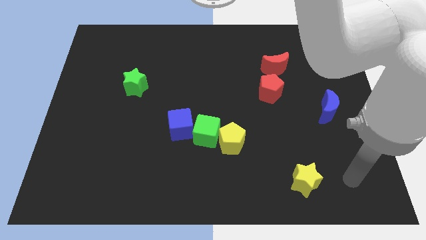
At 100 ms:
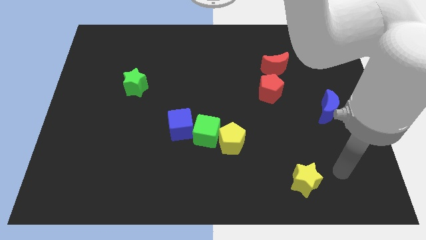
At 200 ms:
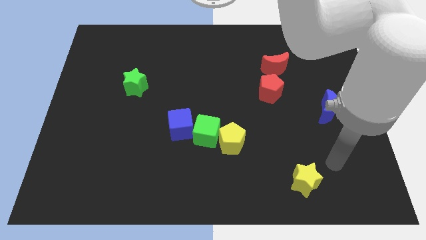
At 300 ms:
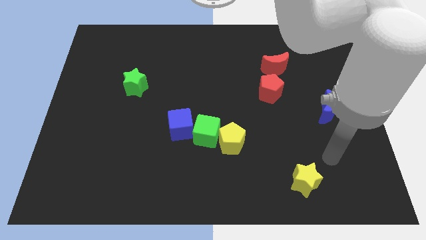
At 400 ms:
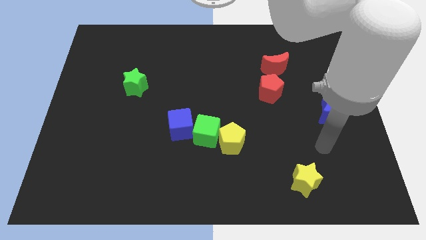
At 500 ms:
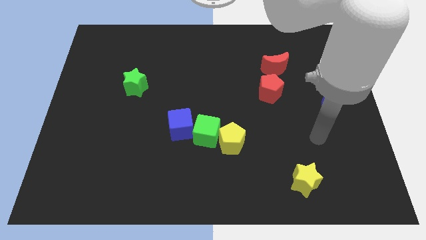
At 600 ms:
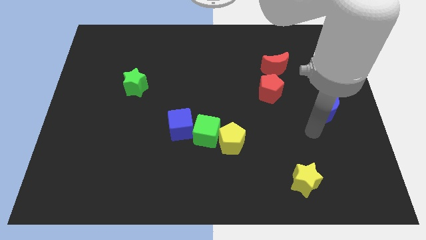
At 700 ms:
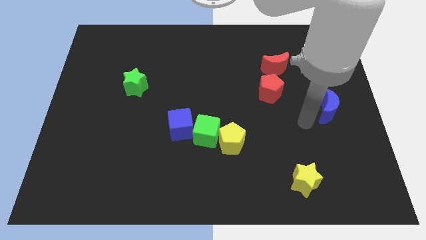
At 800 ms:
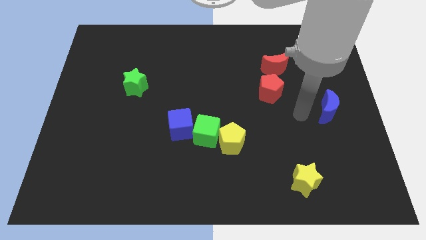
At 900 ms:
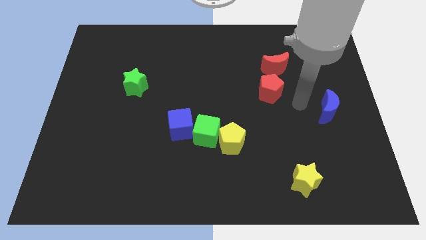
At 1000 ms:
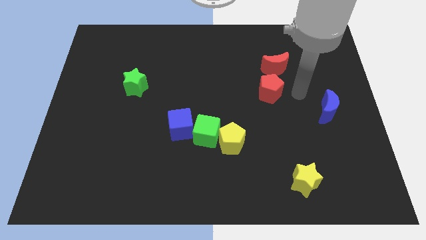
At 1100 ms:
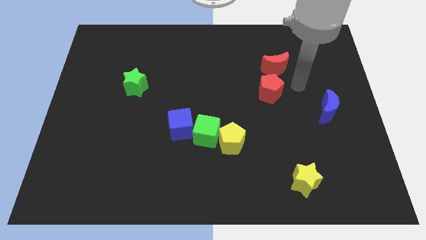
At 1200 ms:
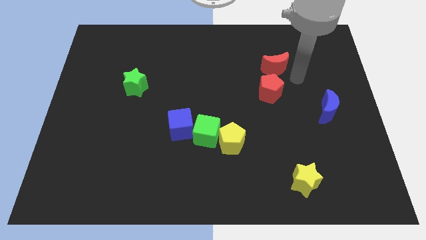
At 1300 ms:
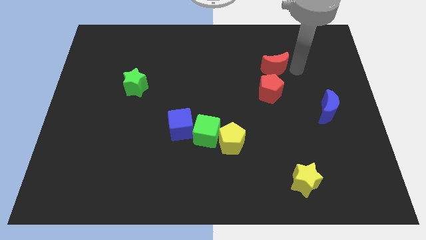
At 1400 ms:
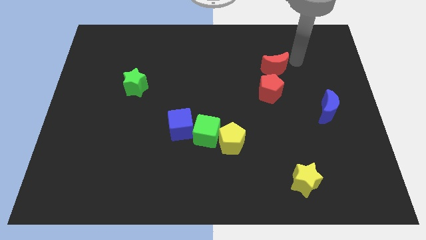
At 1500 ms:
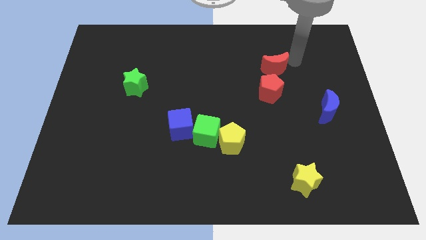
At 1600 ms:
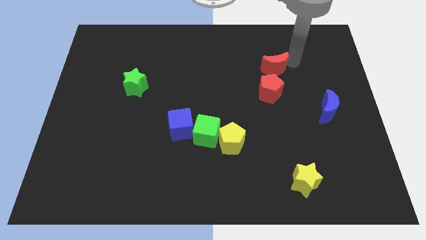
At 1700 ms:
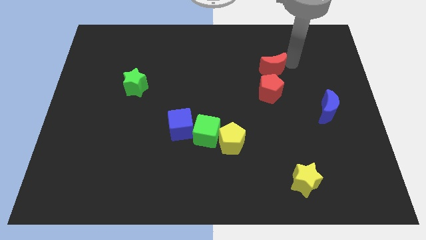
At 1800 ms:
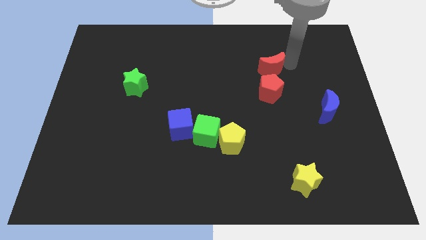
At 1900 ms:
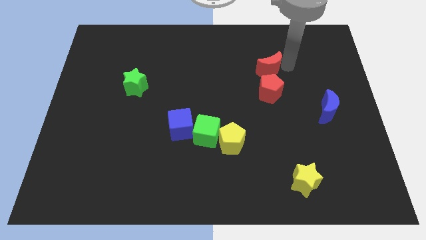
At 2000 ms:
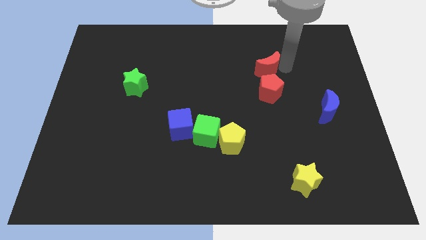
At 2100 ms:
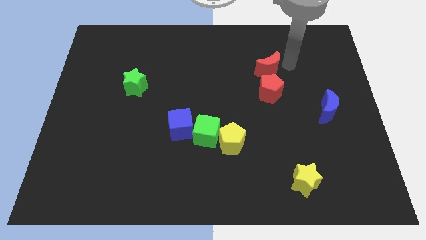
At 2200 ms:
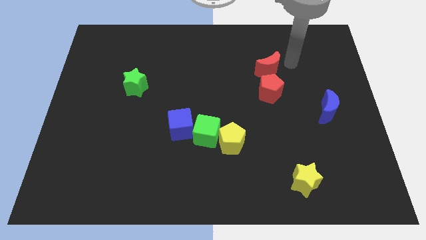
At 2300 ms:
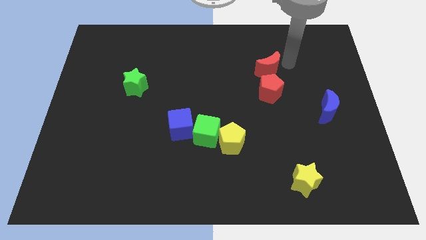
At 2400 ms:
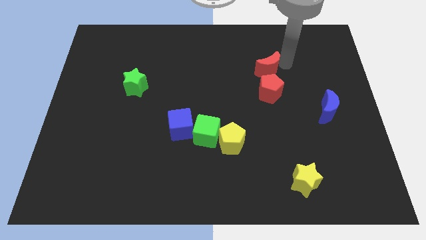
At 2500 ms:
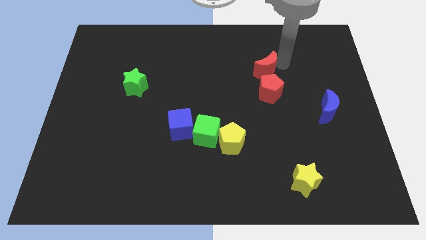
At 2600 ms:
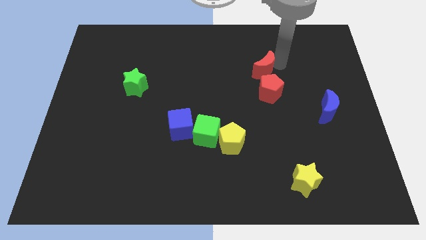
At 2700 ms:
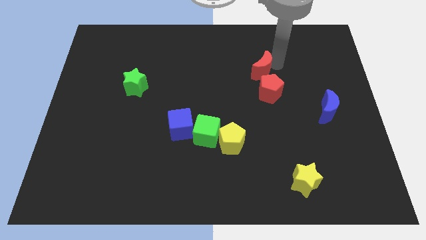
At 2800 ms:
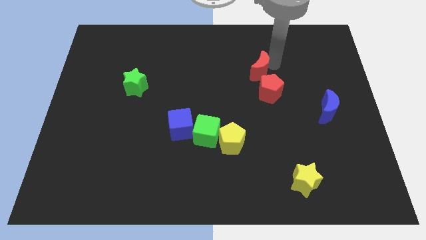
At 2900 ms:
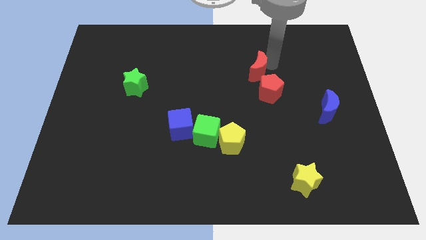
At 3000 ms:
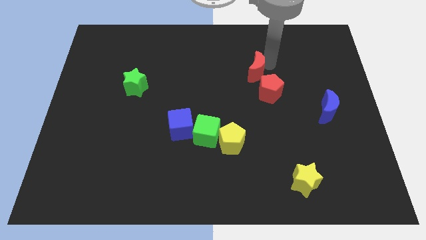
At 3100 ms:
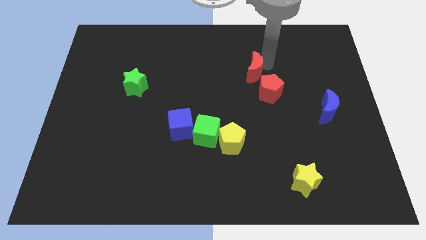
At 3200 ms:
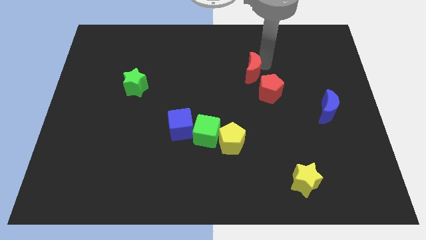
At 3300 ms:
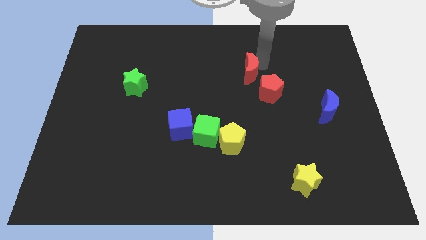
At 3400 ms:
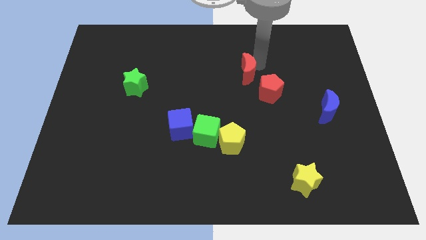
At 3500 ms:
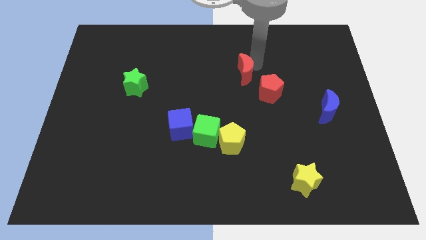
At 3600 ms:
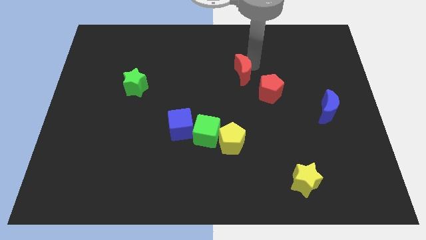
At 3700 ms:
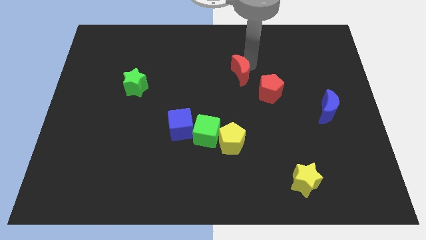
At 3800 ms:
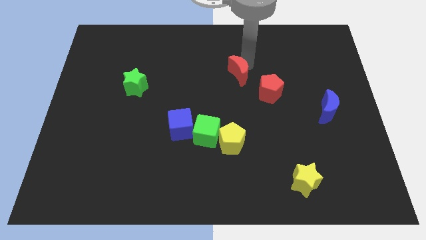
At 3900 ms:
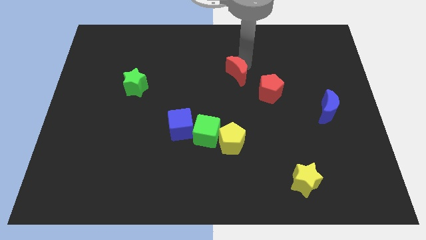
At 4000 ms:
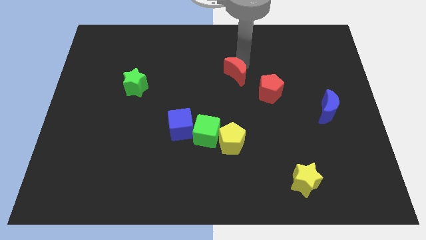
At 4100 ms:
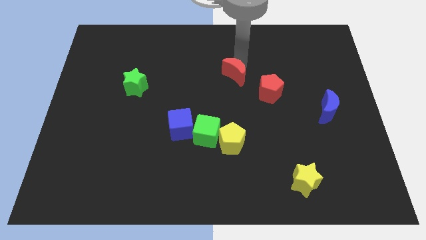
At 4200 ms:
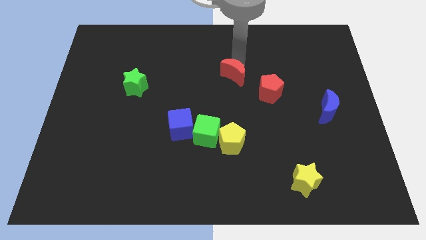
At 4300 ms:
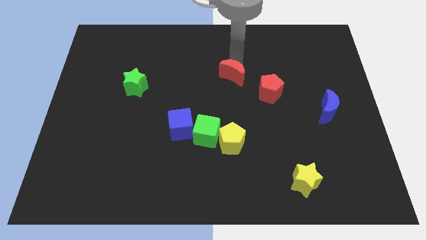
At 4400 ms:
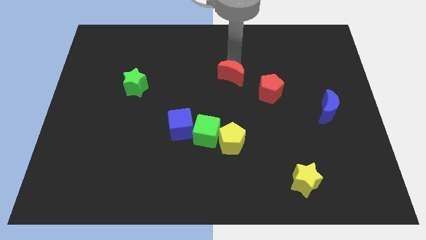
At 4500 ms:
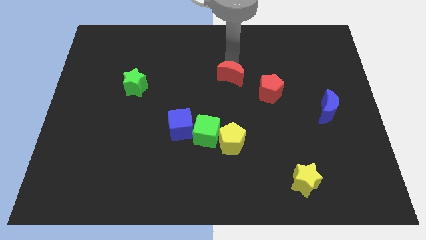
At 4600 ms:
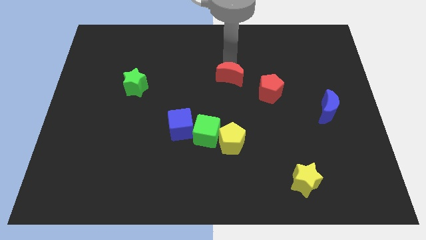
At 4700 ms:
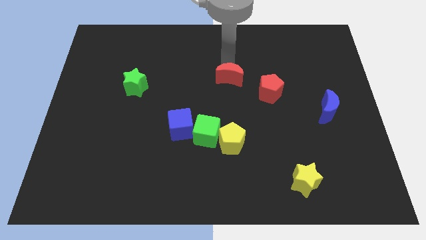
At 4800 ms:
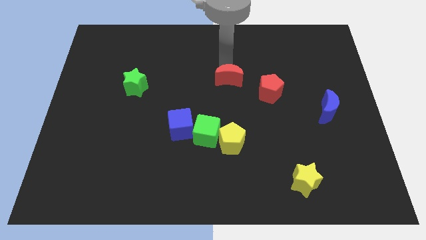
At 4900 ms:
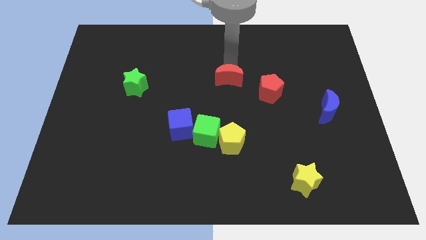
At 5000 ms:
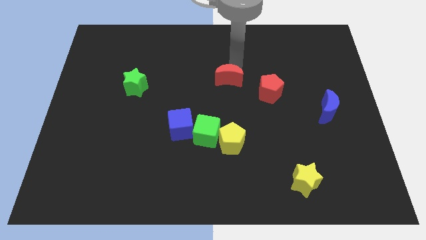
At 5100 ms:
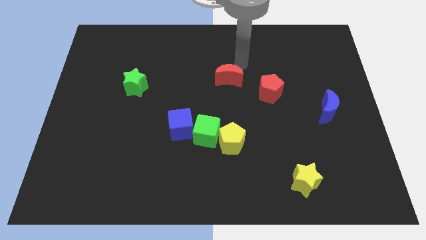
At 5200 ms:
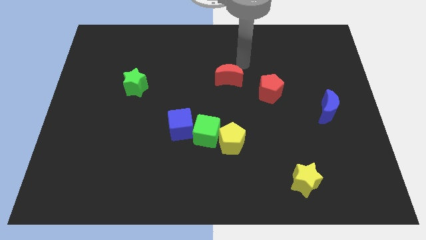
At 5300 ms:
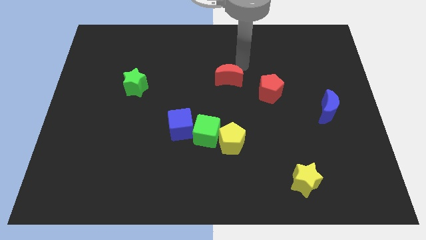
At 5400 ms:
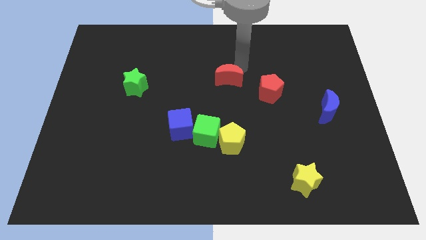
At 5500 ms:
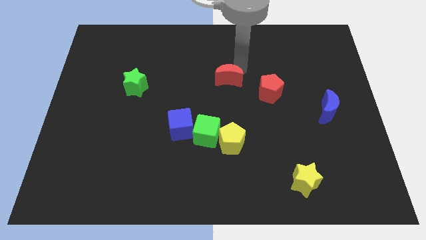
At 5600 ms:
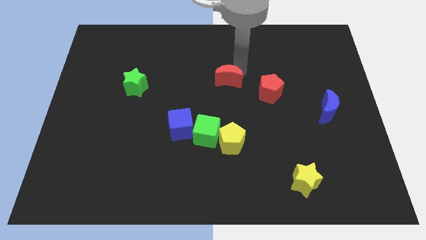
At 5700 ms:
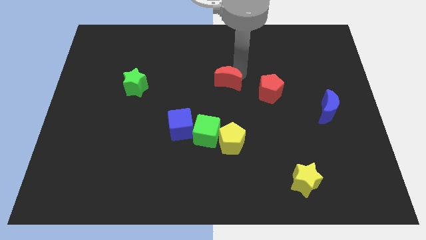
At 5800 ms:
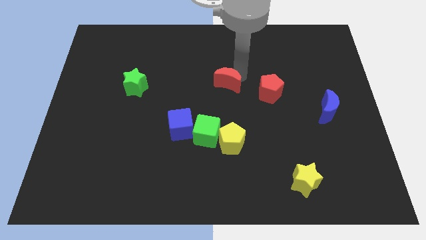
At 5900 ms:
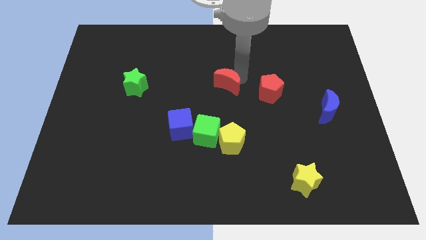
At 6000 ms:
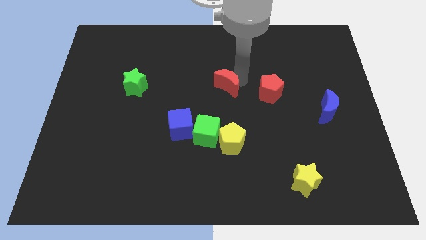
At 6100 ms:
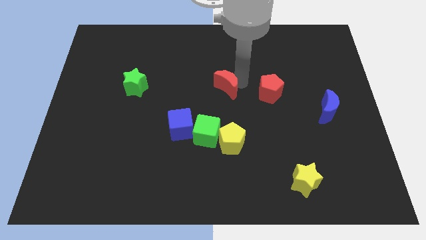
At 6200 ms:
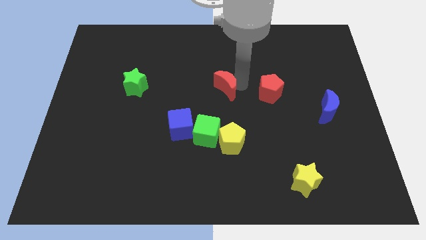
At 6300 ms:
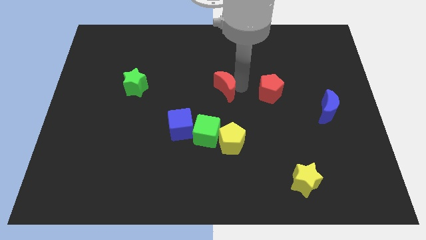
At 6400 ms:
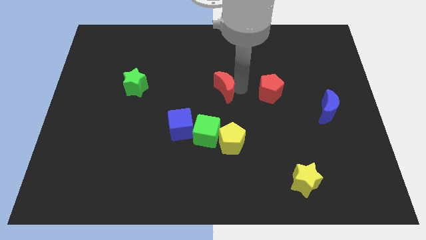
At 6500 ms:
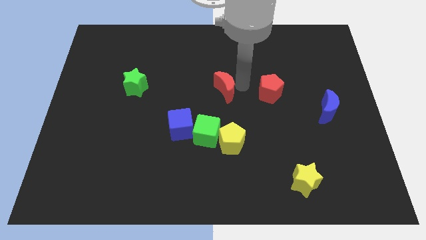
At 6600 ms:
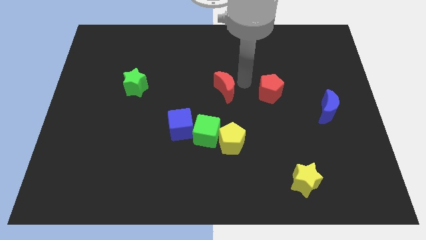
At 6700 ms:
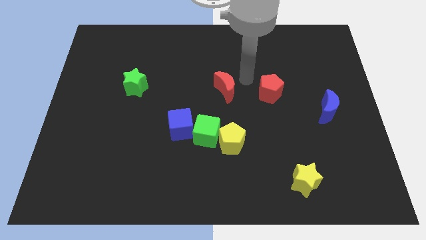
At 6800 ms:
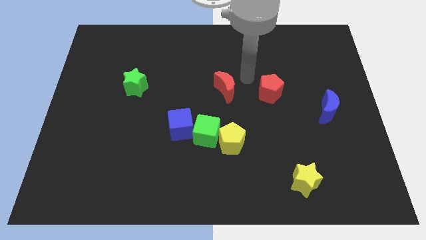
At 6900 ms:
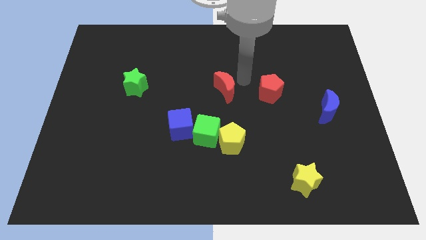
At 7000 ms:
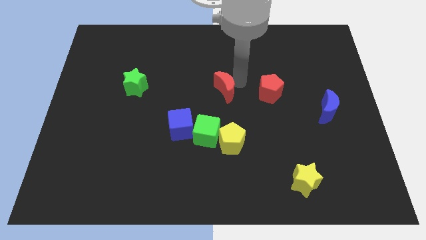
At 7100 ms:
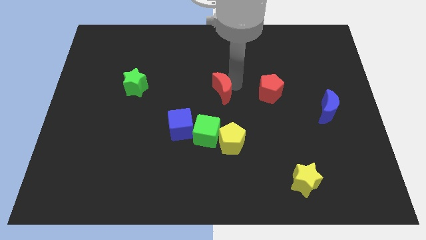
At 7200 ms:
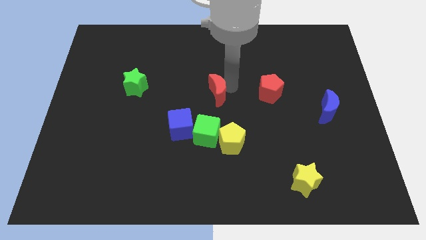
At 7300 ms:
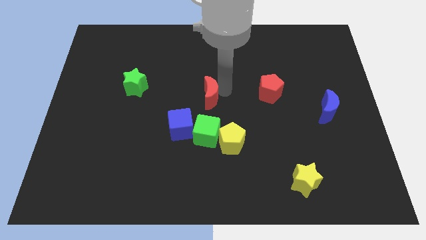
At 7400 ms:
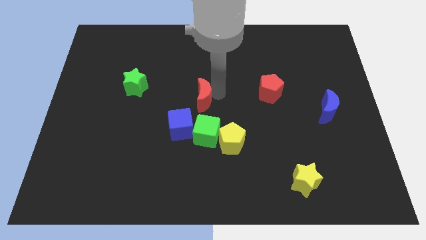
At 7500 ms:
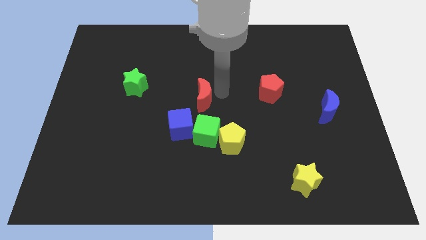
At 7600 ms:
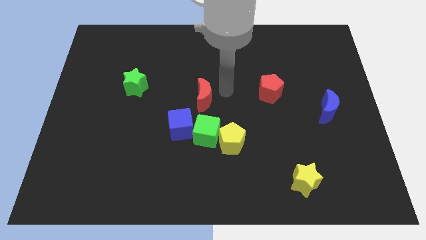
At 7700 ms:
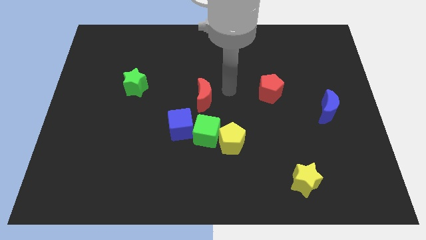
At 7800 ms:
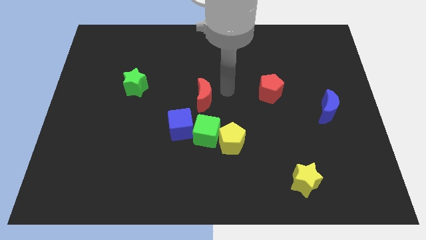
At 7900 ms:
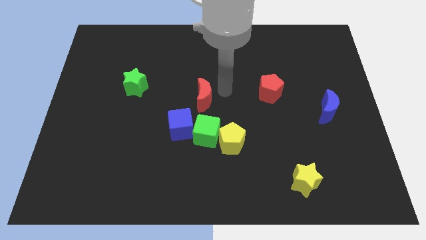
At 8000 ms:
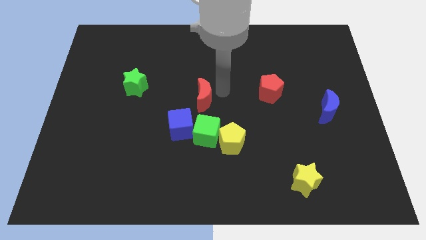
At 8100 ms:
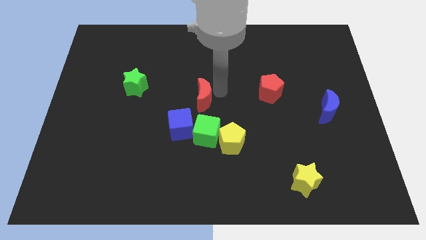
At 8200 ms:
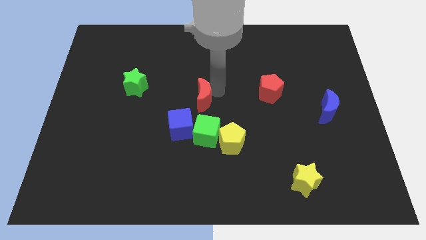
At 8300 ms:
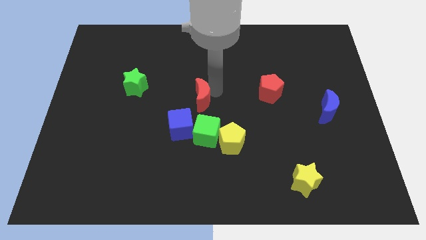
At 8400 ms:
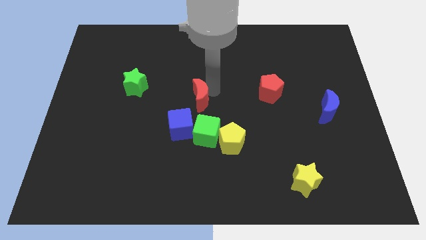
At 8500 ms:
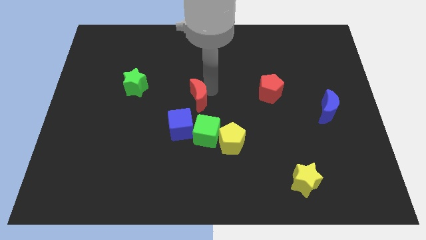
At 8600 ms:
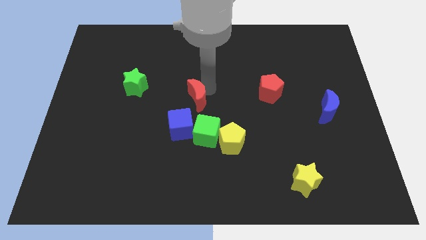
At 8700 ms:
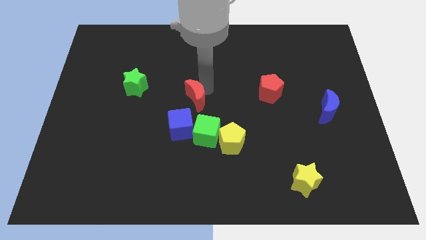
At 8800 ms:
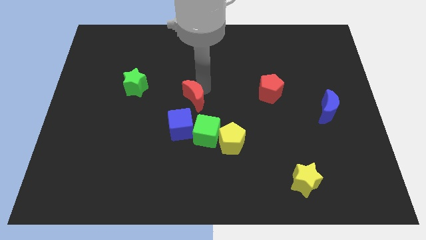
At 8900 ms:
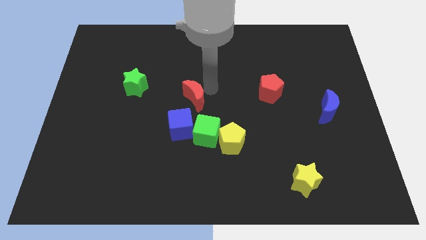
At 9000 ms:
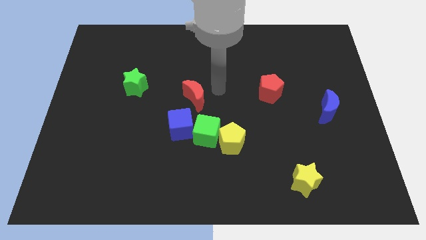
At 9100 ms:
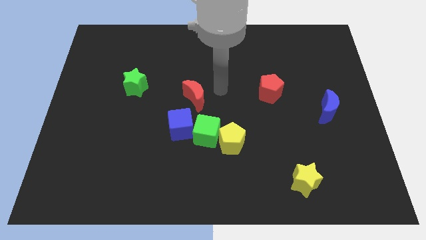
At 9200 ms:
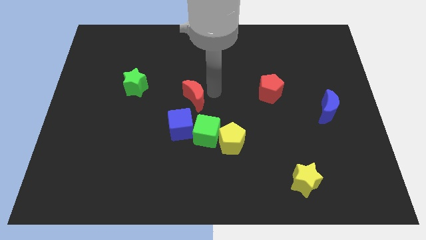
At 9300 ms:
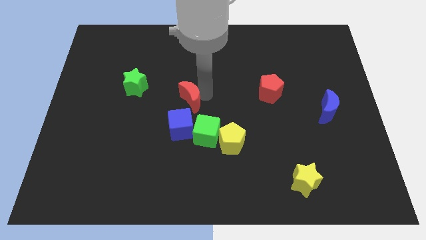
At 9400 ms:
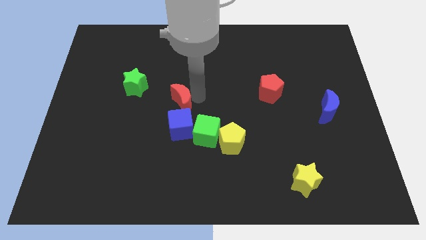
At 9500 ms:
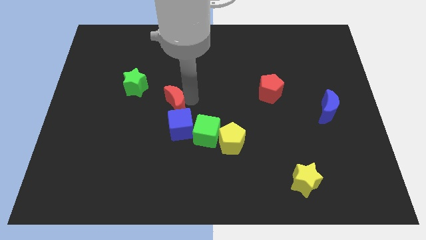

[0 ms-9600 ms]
put the red moon to the top left of the blue cube
